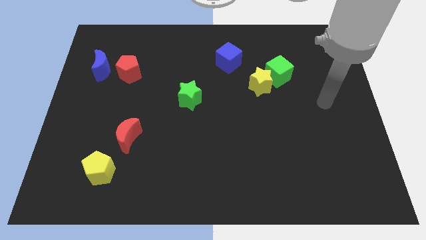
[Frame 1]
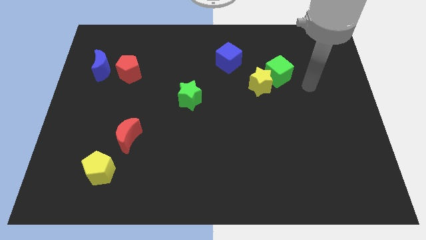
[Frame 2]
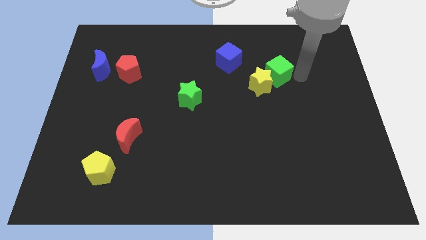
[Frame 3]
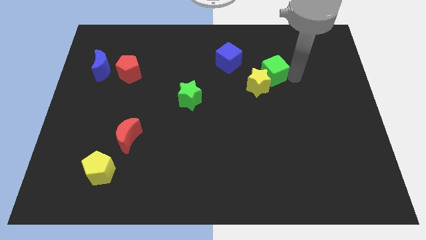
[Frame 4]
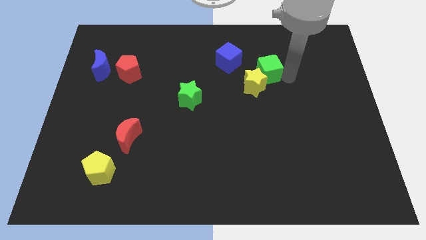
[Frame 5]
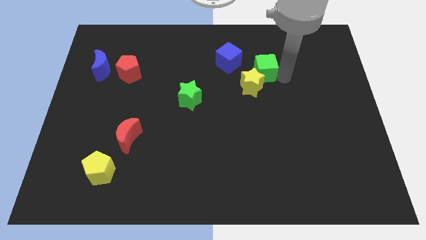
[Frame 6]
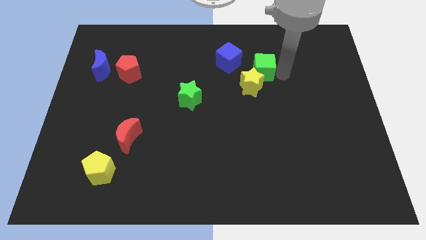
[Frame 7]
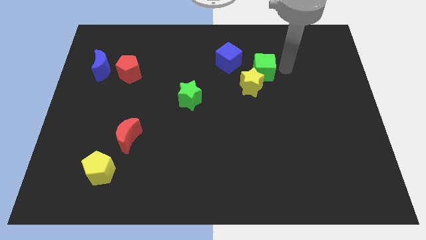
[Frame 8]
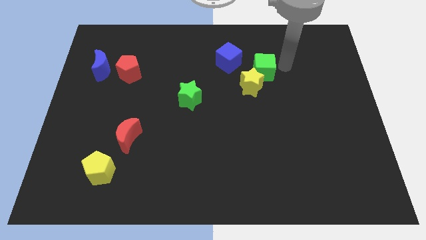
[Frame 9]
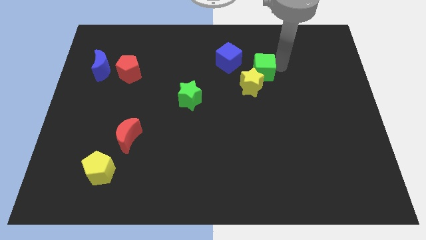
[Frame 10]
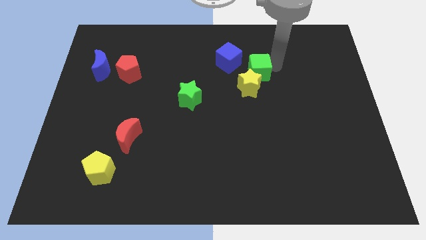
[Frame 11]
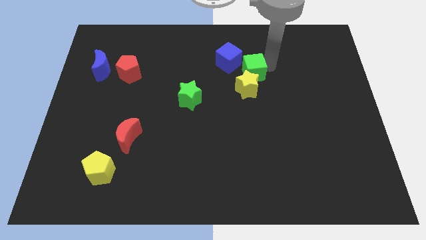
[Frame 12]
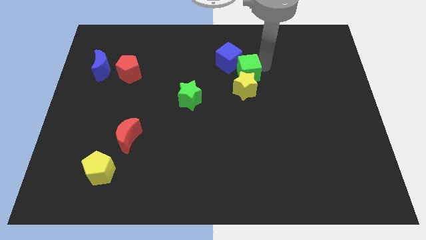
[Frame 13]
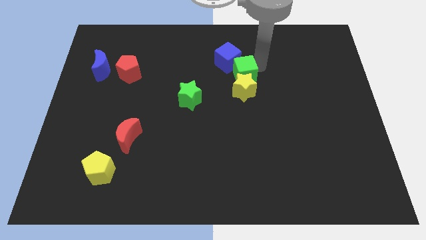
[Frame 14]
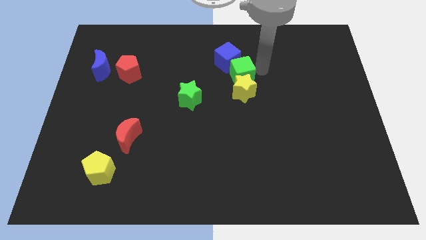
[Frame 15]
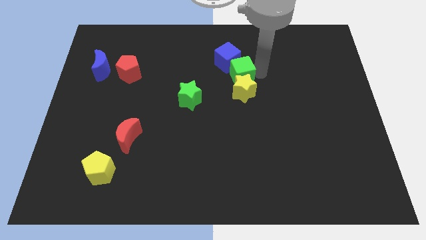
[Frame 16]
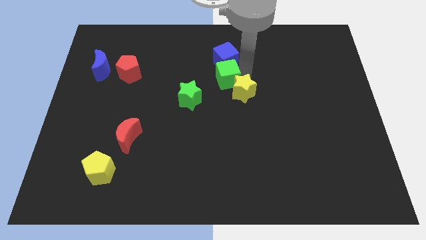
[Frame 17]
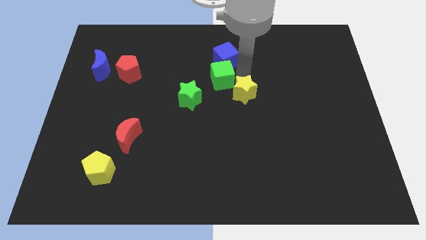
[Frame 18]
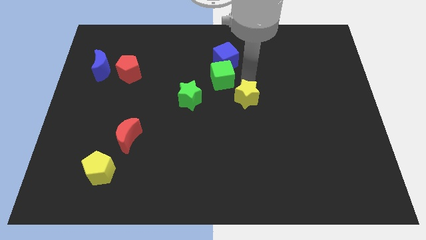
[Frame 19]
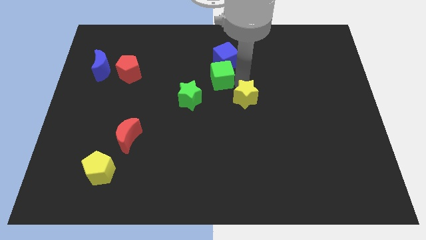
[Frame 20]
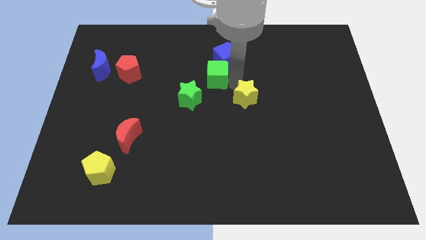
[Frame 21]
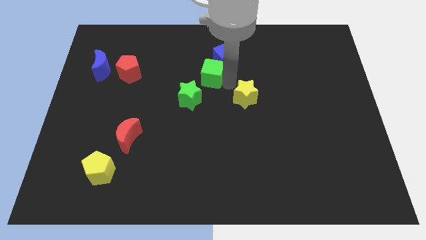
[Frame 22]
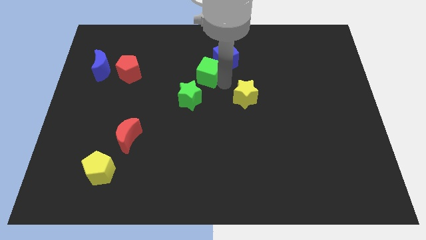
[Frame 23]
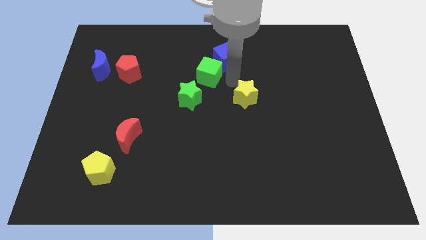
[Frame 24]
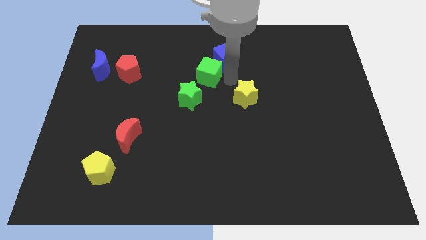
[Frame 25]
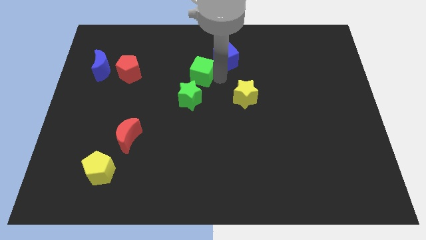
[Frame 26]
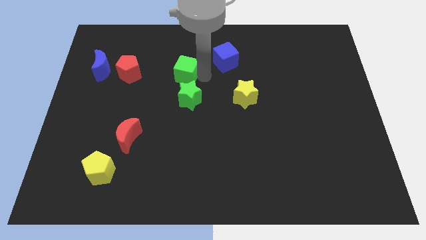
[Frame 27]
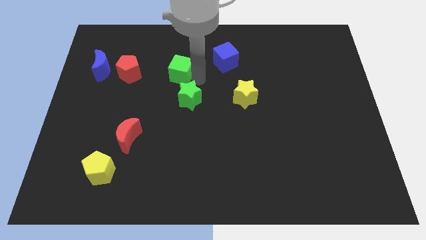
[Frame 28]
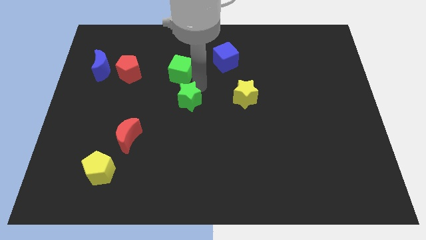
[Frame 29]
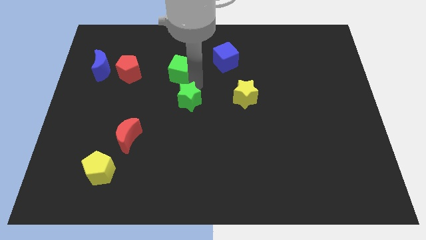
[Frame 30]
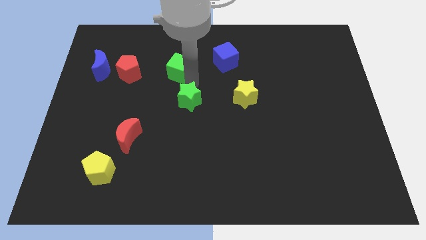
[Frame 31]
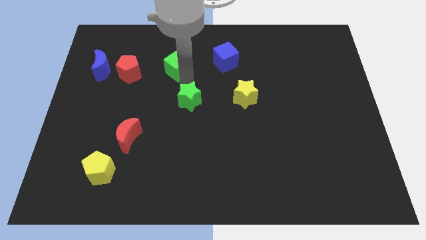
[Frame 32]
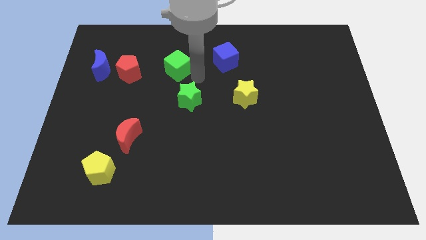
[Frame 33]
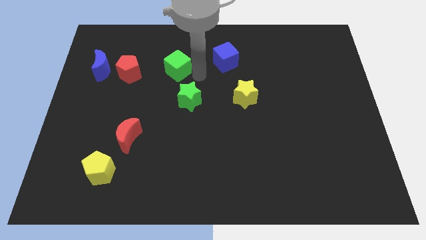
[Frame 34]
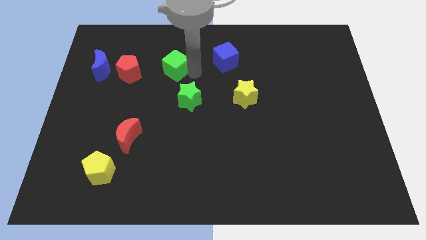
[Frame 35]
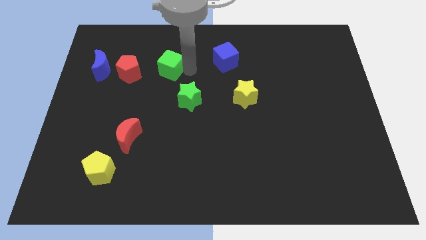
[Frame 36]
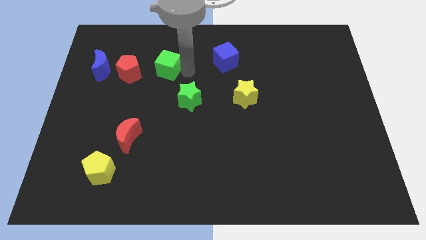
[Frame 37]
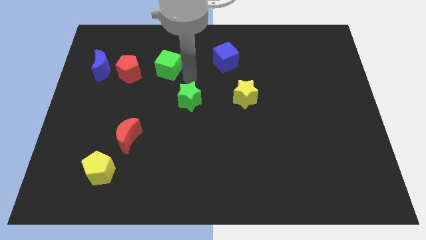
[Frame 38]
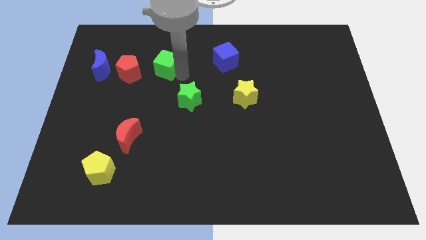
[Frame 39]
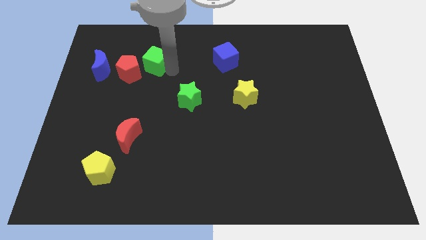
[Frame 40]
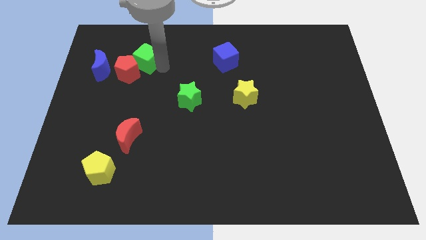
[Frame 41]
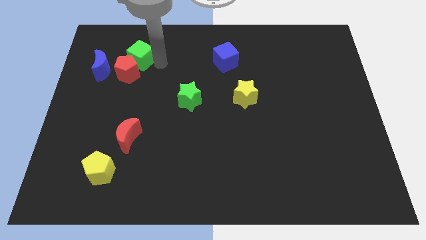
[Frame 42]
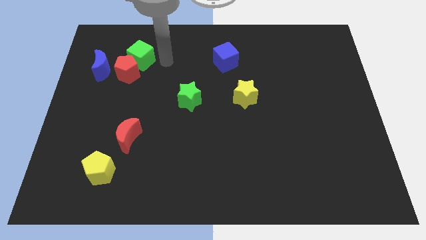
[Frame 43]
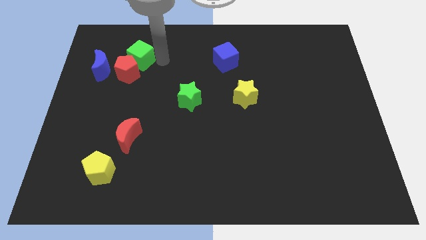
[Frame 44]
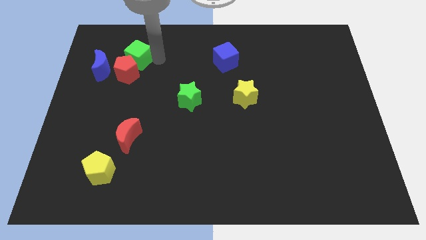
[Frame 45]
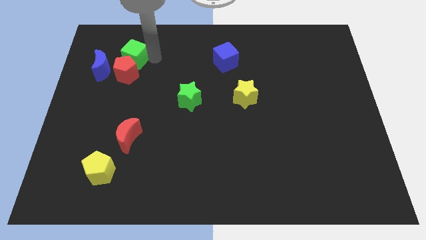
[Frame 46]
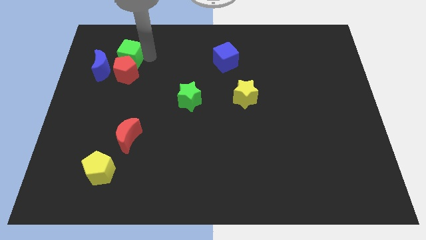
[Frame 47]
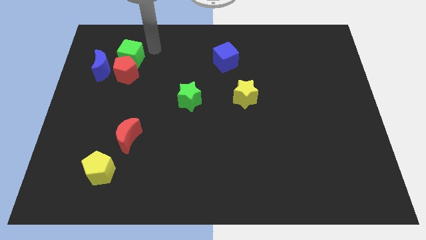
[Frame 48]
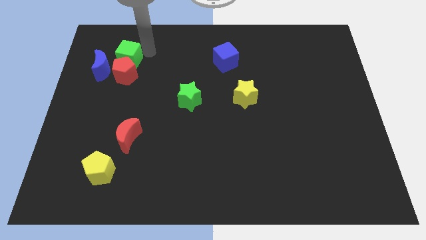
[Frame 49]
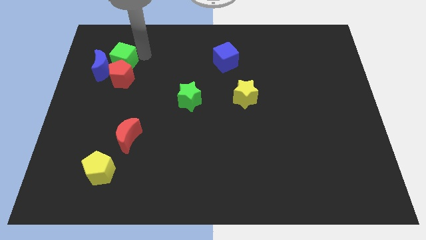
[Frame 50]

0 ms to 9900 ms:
move the green cube towards the blue moon

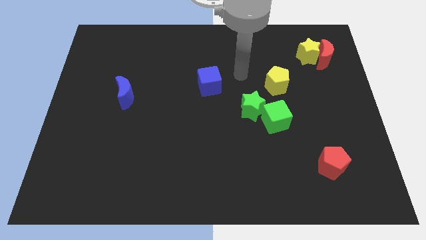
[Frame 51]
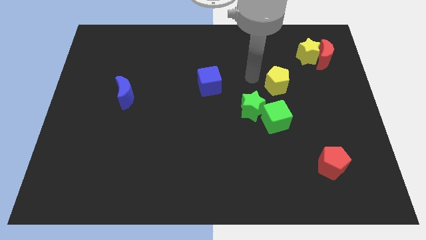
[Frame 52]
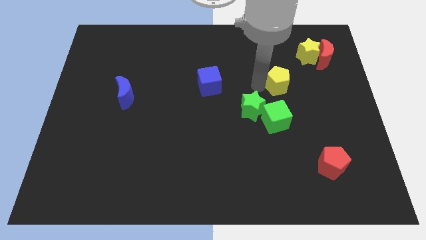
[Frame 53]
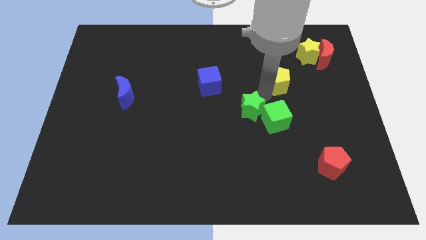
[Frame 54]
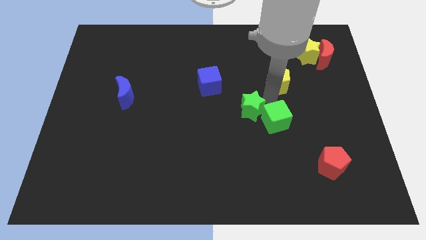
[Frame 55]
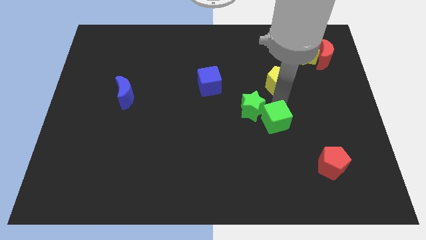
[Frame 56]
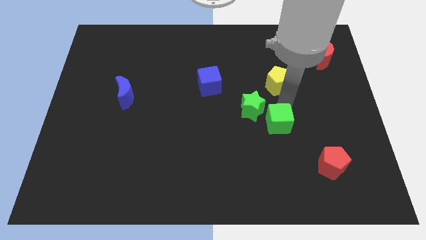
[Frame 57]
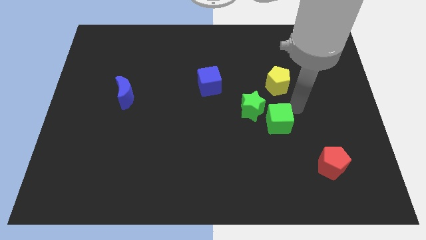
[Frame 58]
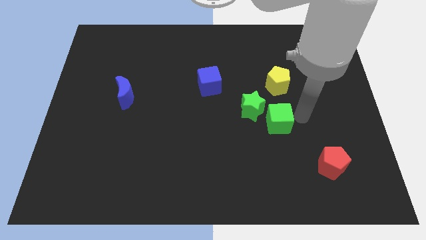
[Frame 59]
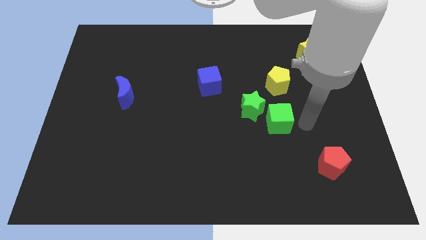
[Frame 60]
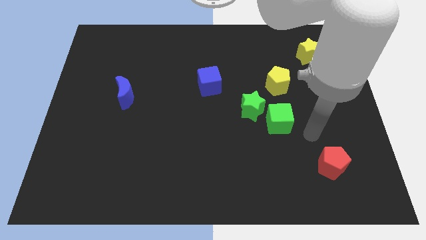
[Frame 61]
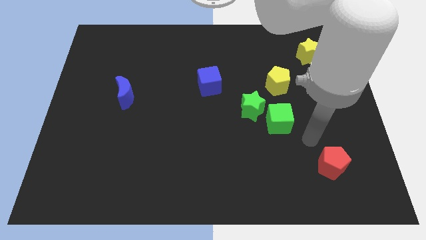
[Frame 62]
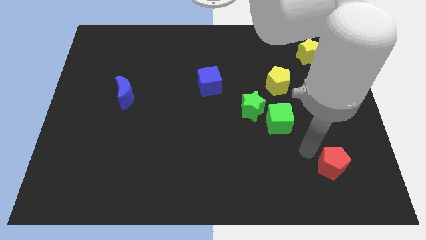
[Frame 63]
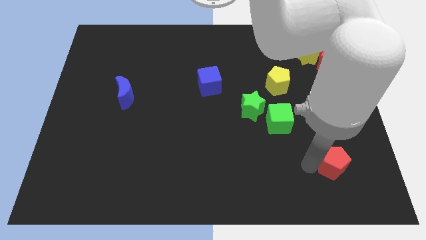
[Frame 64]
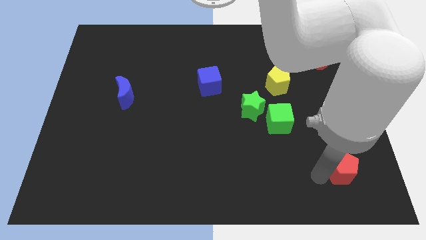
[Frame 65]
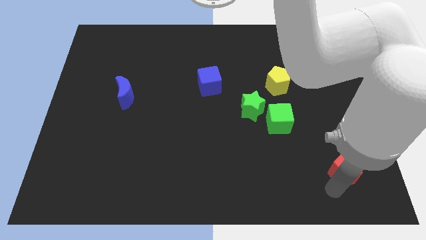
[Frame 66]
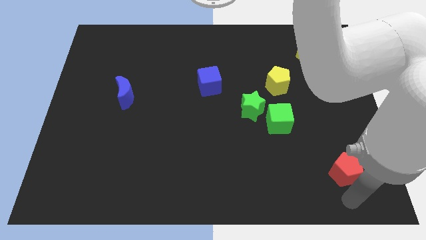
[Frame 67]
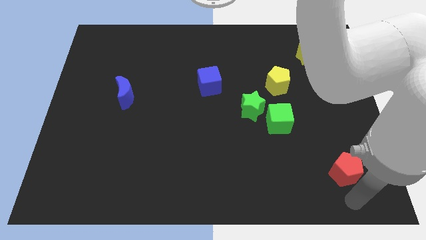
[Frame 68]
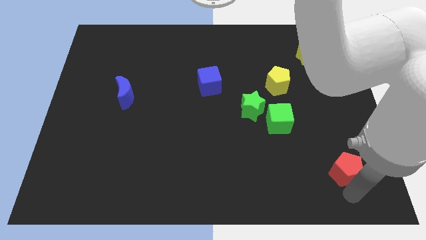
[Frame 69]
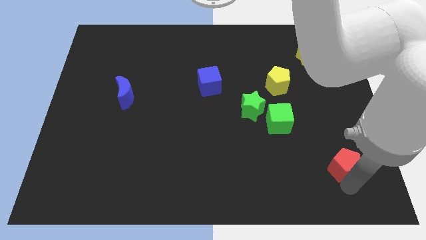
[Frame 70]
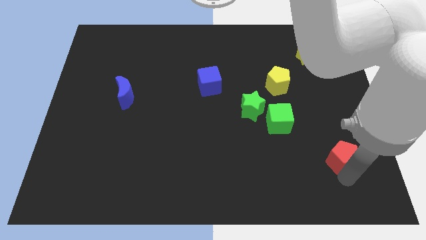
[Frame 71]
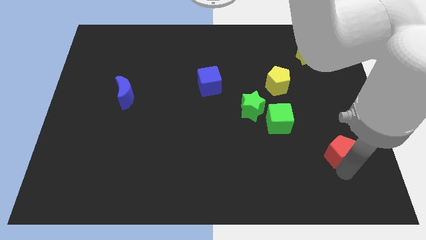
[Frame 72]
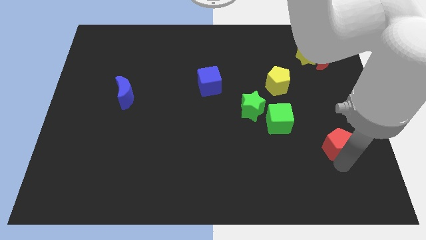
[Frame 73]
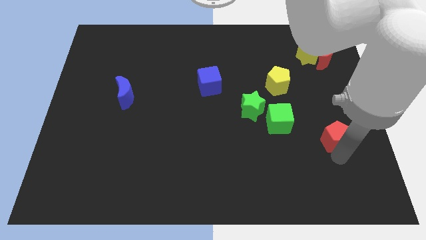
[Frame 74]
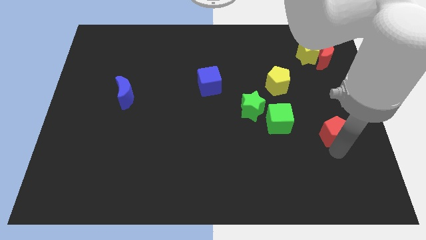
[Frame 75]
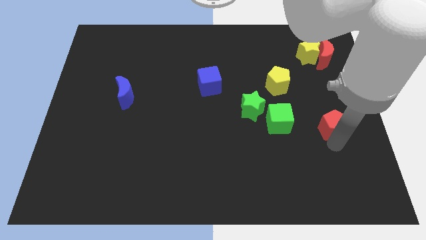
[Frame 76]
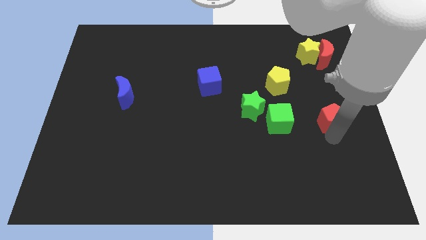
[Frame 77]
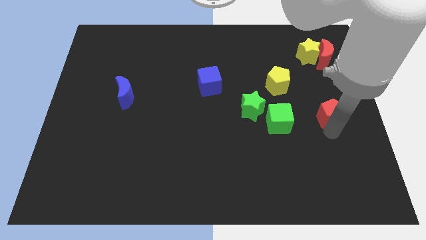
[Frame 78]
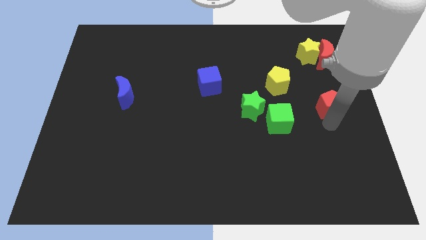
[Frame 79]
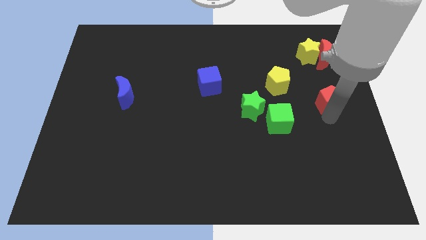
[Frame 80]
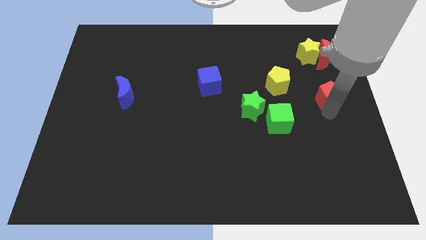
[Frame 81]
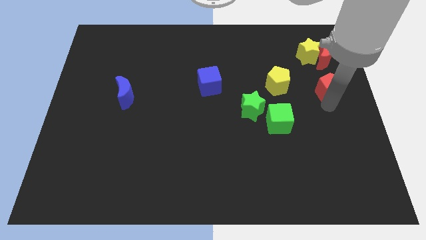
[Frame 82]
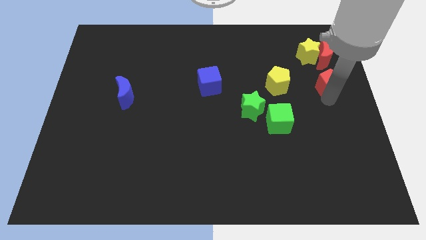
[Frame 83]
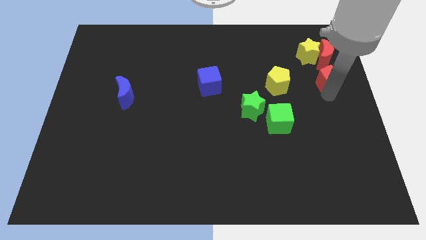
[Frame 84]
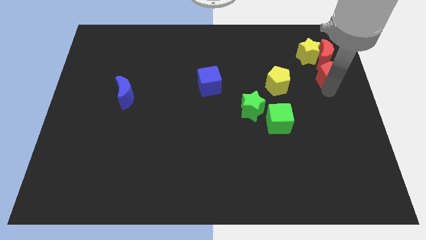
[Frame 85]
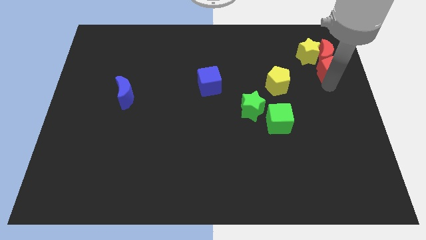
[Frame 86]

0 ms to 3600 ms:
put the red pentagon to the red moon
